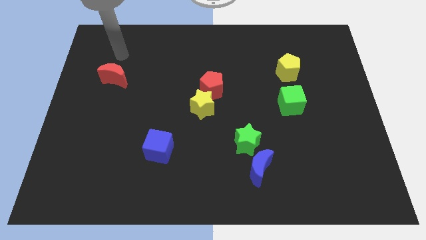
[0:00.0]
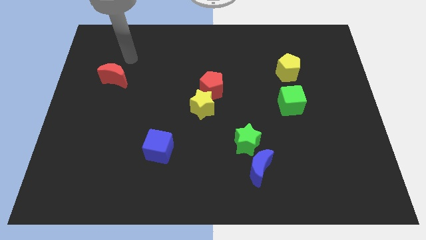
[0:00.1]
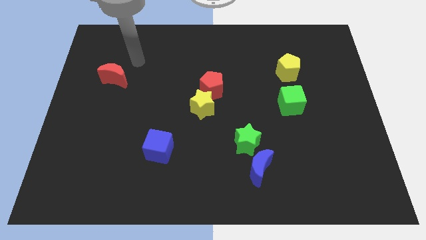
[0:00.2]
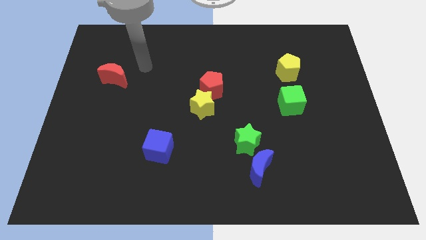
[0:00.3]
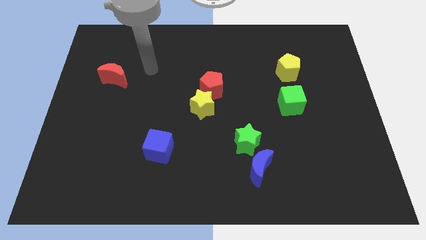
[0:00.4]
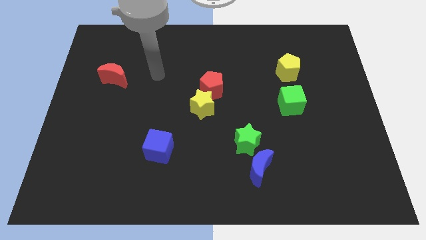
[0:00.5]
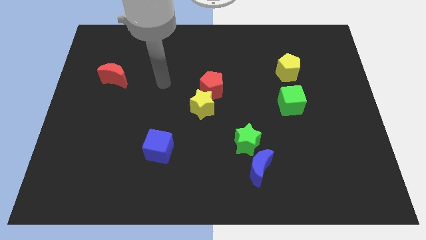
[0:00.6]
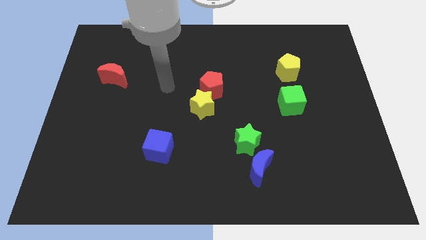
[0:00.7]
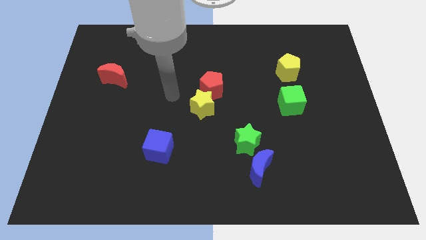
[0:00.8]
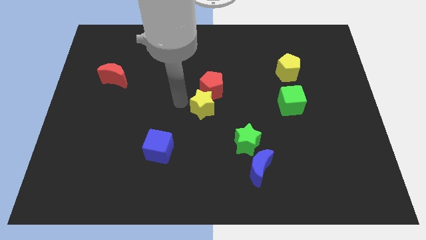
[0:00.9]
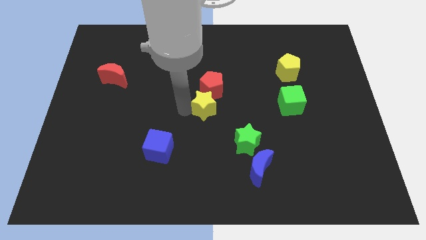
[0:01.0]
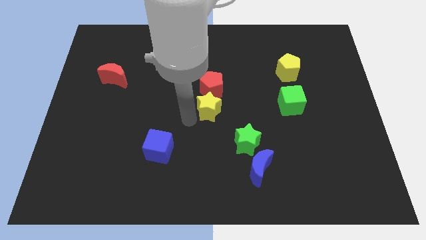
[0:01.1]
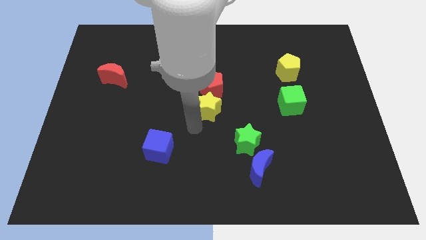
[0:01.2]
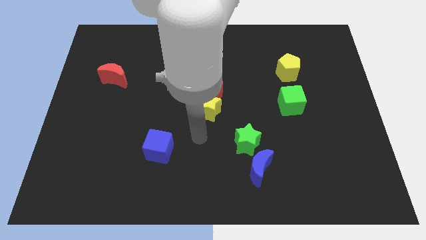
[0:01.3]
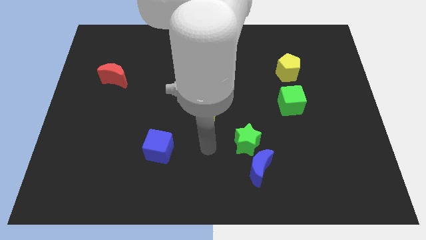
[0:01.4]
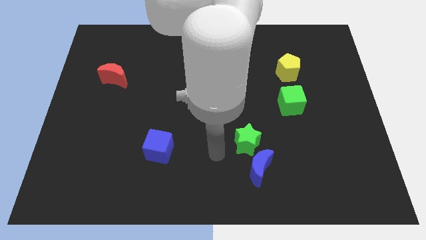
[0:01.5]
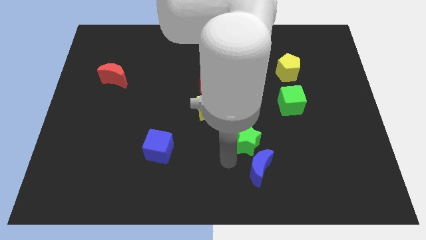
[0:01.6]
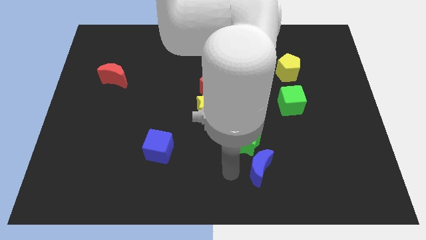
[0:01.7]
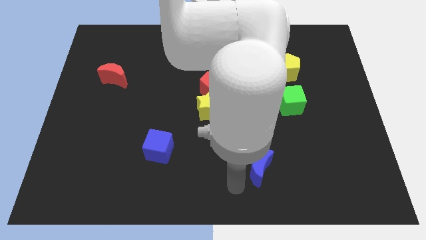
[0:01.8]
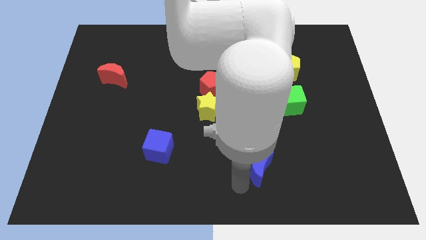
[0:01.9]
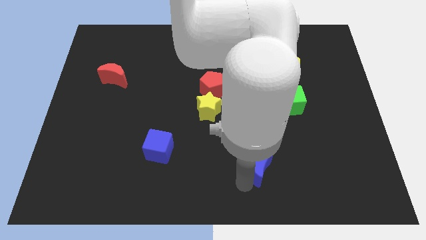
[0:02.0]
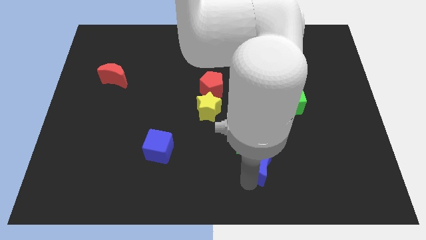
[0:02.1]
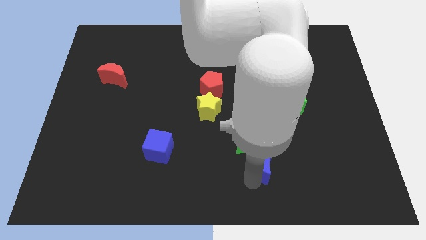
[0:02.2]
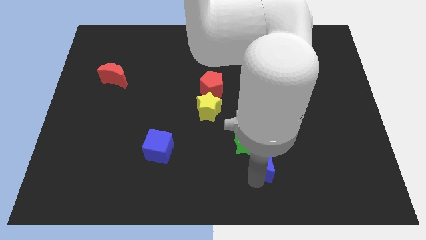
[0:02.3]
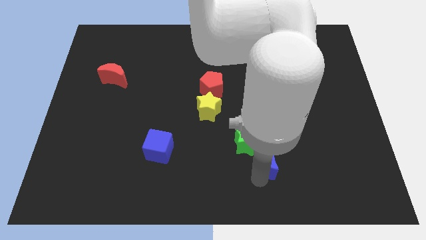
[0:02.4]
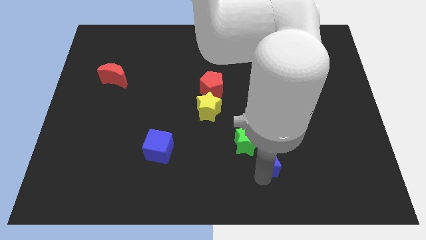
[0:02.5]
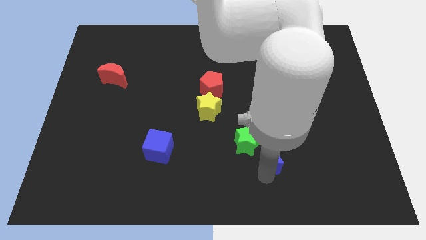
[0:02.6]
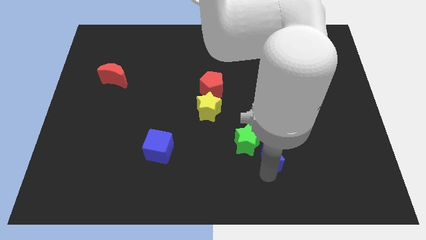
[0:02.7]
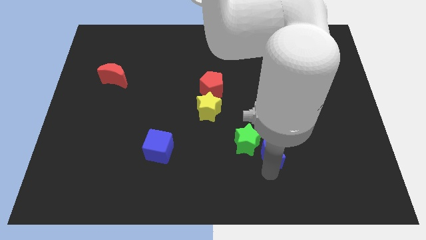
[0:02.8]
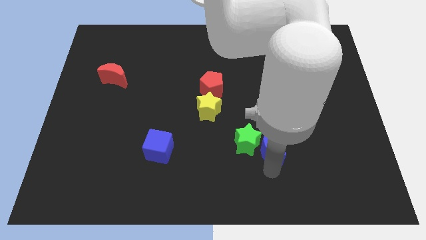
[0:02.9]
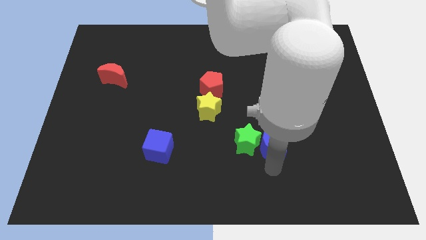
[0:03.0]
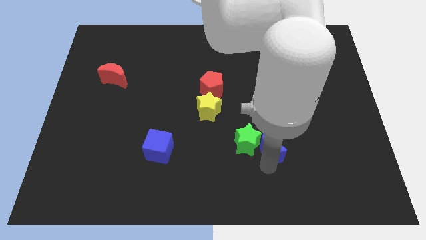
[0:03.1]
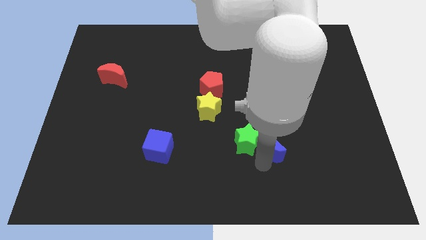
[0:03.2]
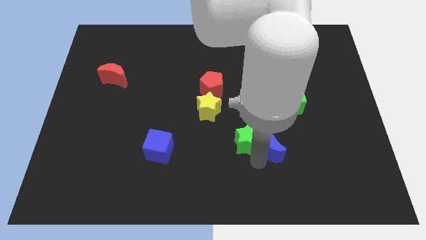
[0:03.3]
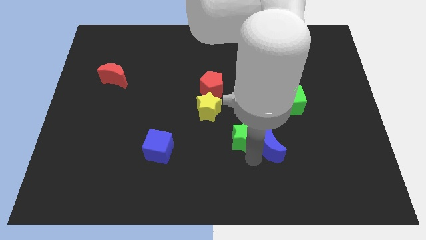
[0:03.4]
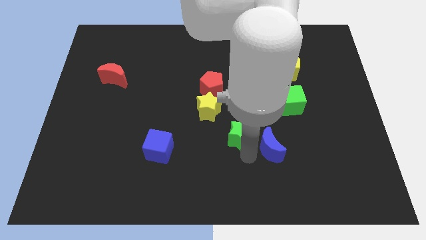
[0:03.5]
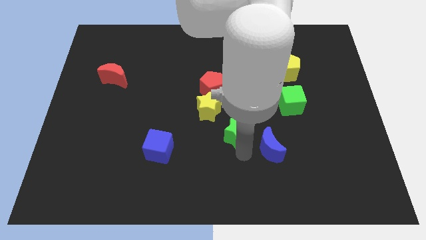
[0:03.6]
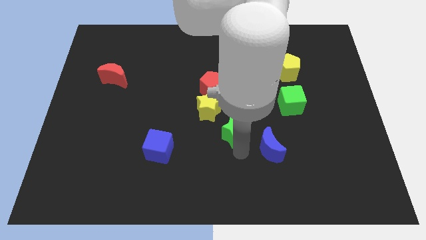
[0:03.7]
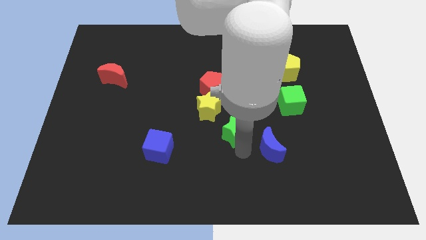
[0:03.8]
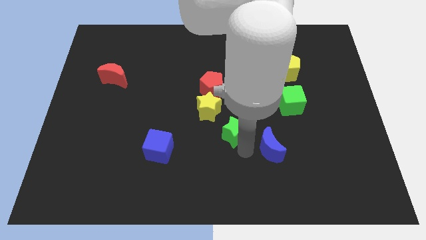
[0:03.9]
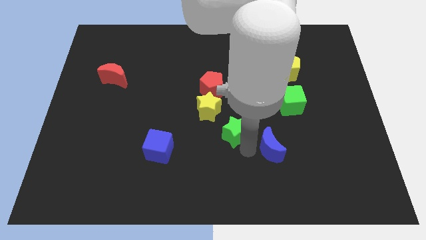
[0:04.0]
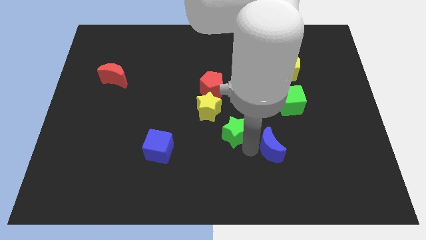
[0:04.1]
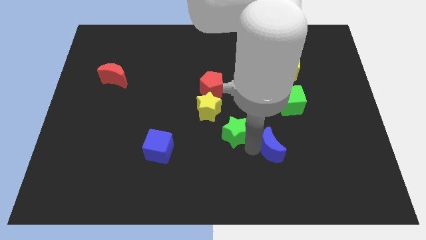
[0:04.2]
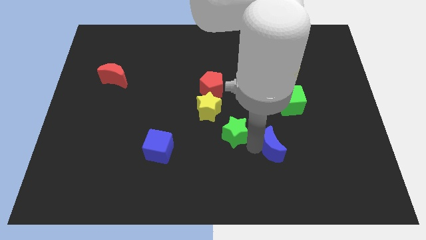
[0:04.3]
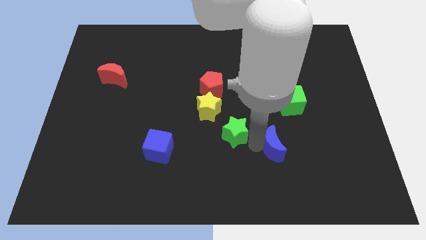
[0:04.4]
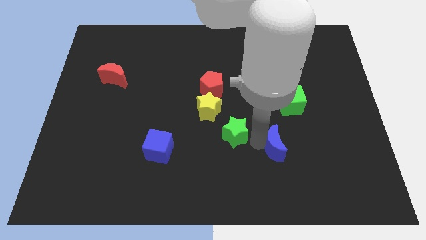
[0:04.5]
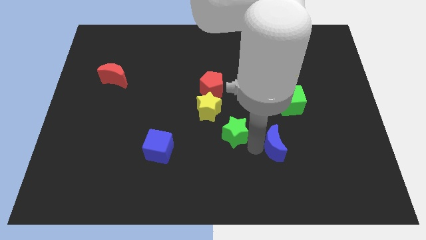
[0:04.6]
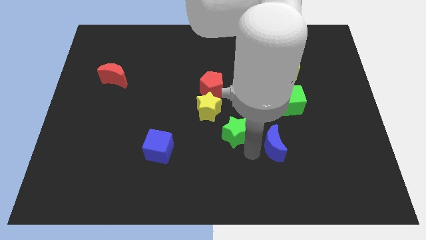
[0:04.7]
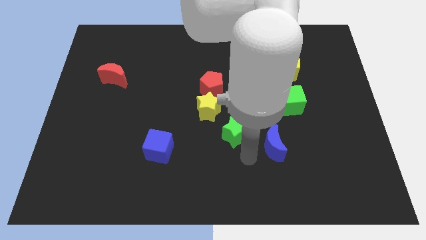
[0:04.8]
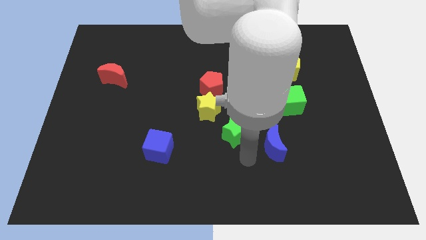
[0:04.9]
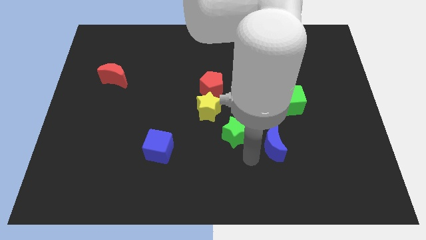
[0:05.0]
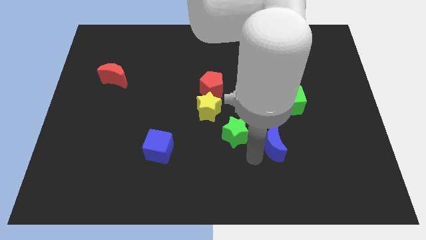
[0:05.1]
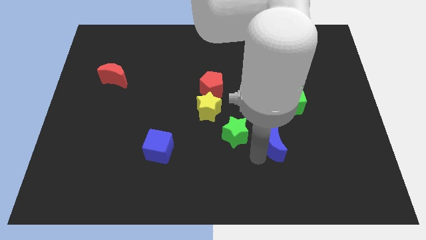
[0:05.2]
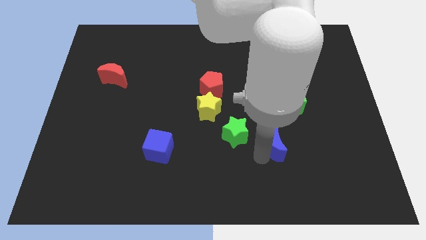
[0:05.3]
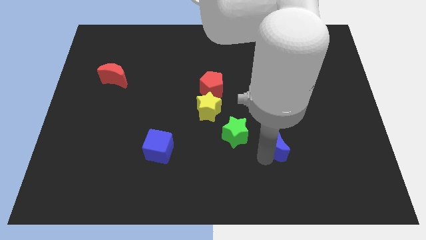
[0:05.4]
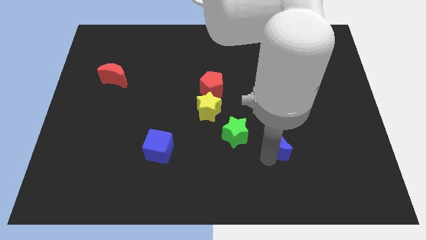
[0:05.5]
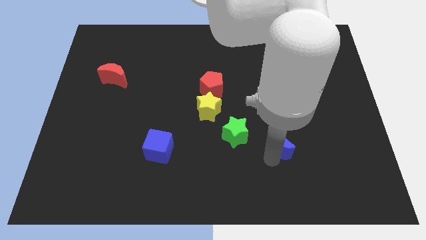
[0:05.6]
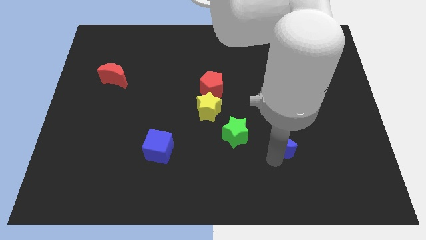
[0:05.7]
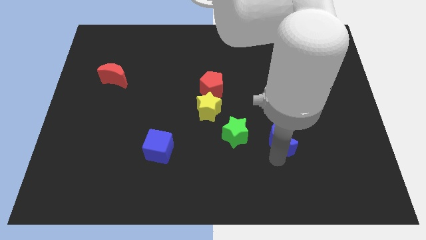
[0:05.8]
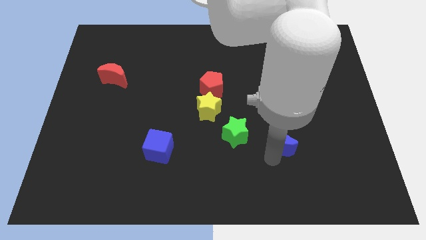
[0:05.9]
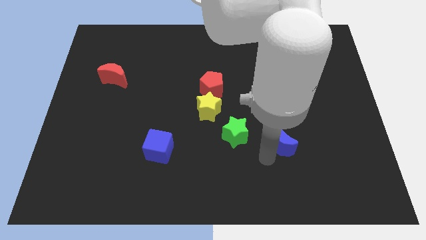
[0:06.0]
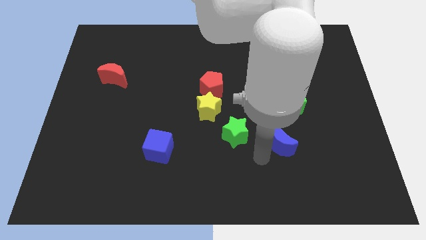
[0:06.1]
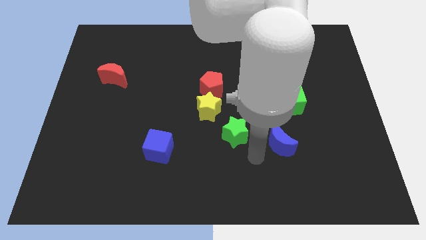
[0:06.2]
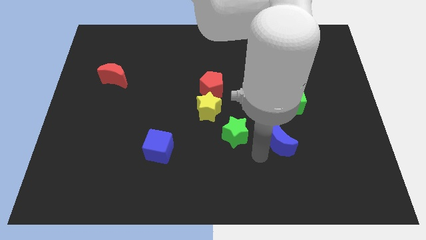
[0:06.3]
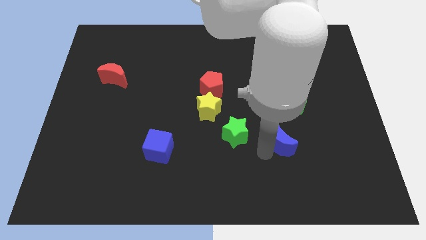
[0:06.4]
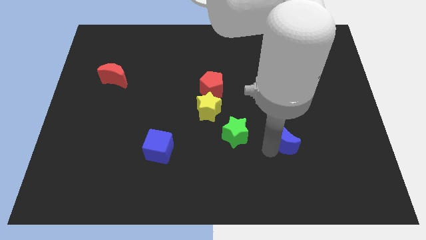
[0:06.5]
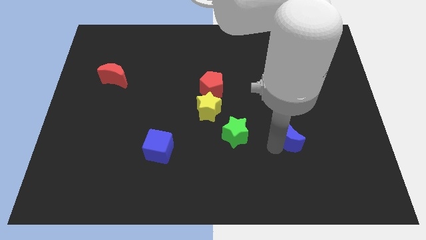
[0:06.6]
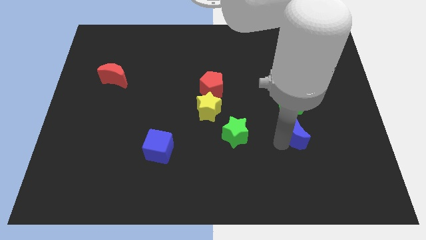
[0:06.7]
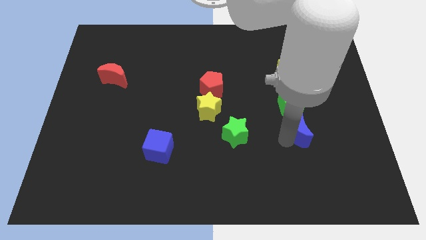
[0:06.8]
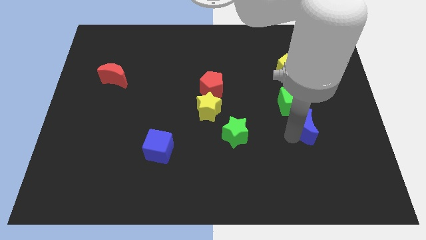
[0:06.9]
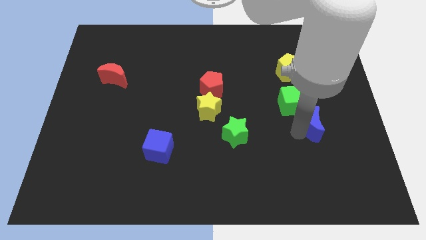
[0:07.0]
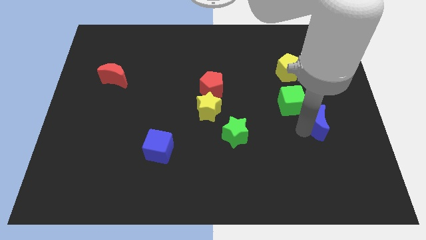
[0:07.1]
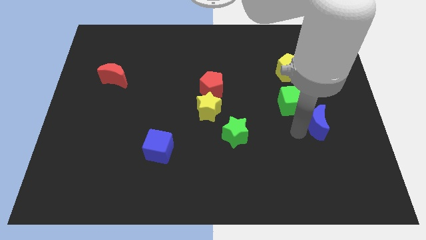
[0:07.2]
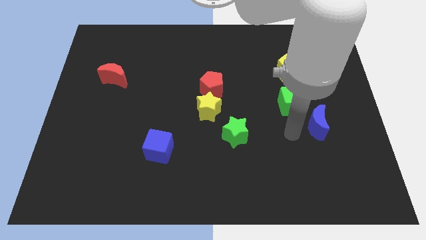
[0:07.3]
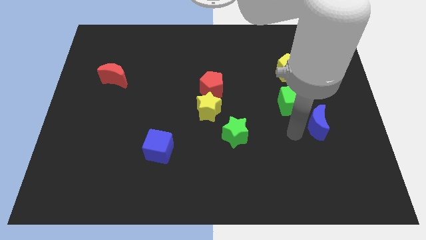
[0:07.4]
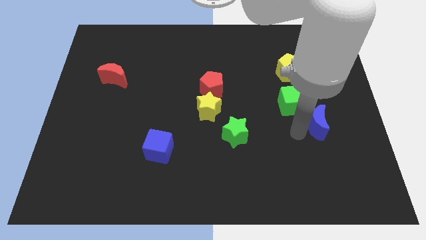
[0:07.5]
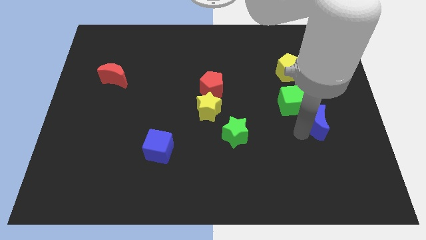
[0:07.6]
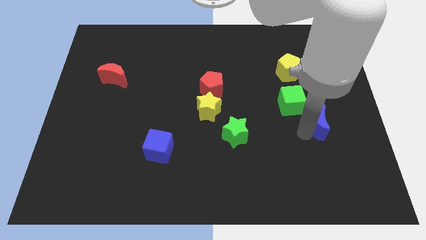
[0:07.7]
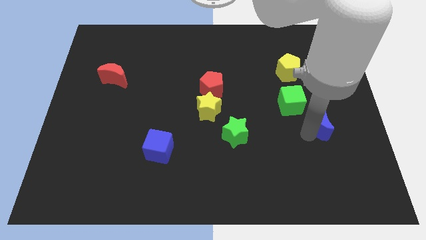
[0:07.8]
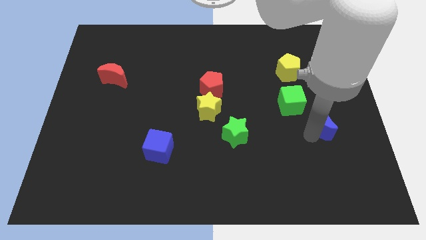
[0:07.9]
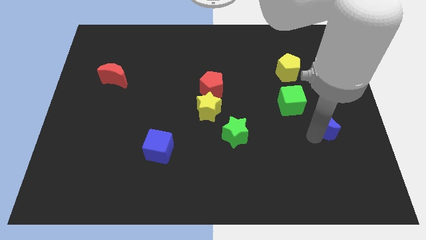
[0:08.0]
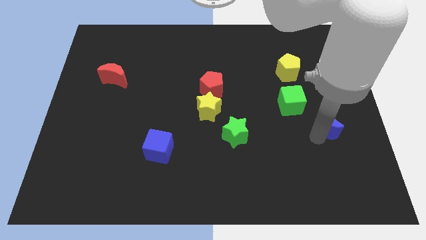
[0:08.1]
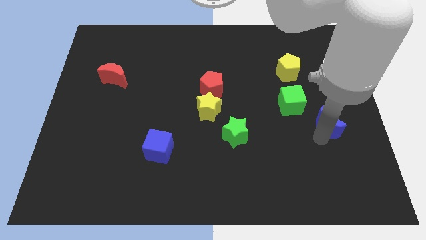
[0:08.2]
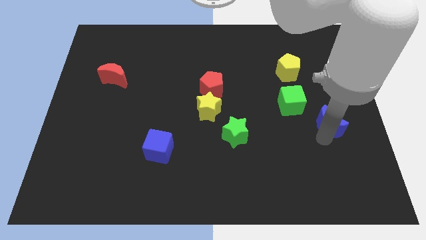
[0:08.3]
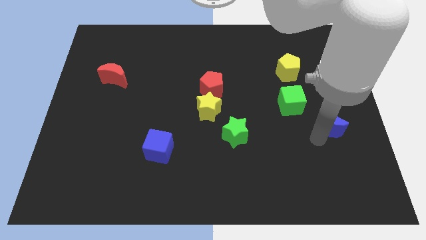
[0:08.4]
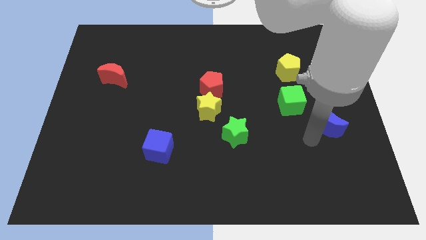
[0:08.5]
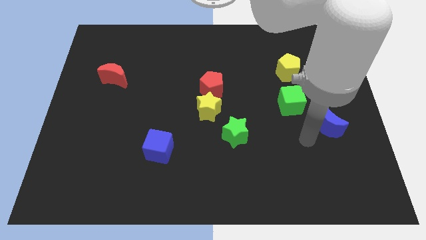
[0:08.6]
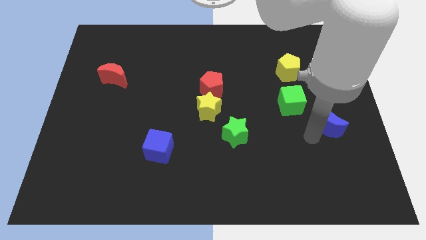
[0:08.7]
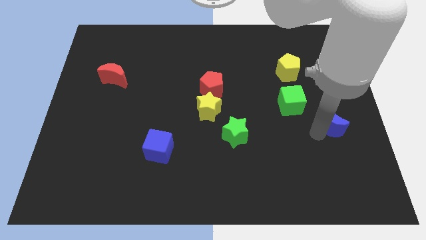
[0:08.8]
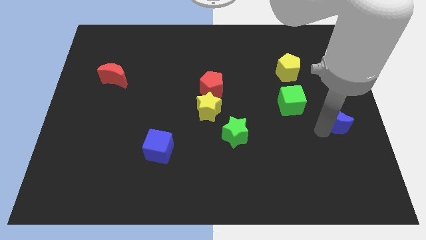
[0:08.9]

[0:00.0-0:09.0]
push the blue moon to the right side
